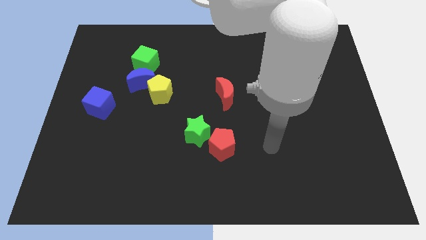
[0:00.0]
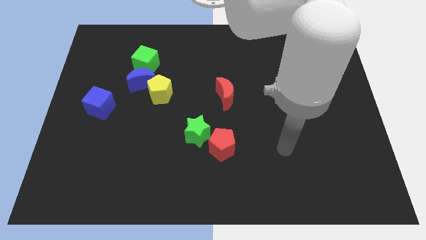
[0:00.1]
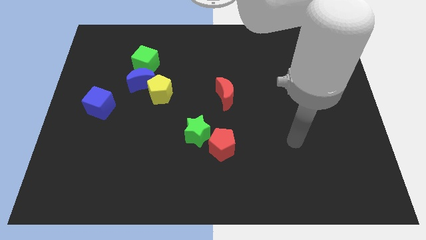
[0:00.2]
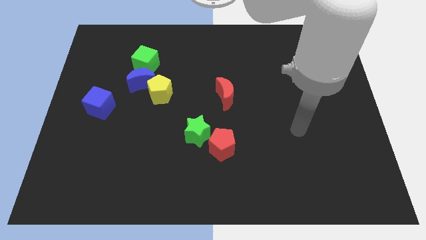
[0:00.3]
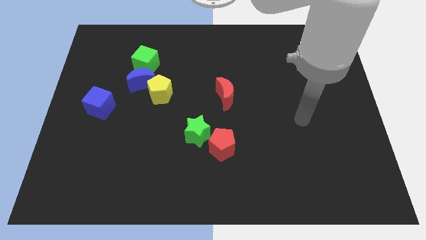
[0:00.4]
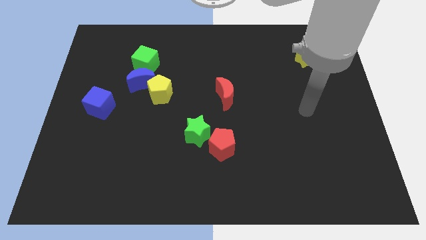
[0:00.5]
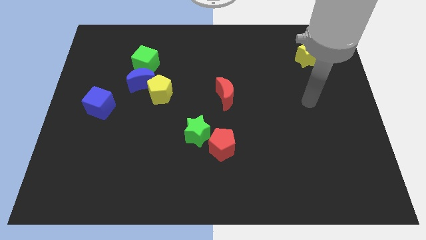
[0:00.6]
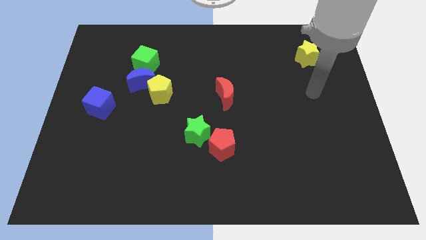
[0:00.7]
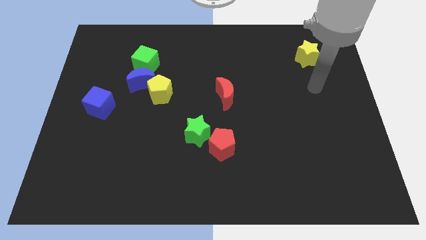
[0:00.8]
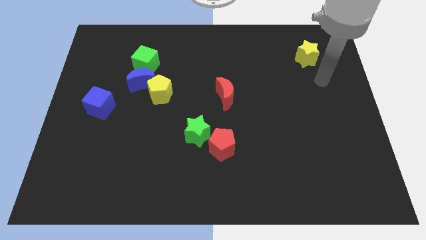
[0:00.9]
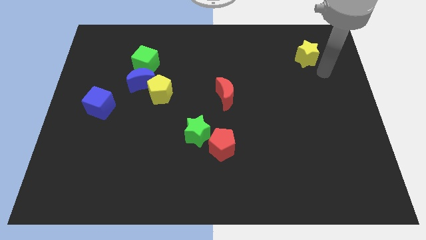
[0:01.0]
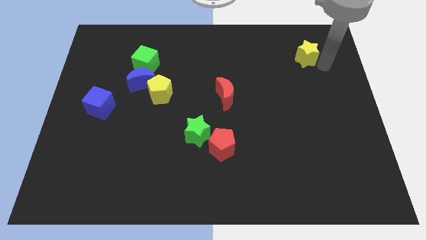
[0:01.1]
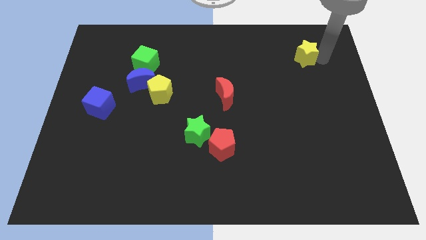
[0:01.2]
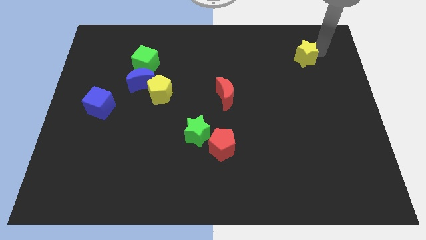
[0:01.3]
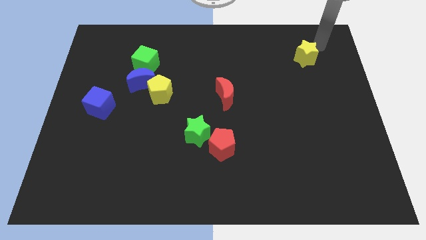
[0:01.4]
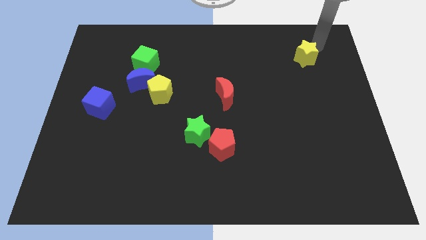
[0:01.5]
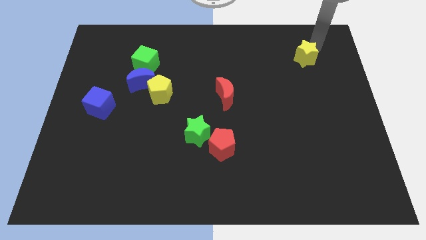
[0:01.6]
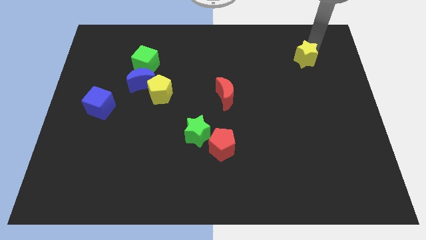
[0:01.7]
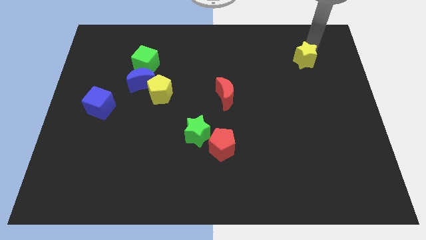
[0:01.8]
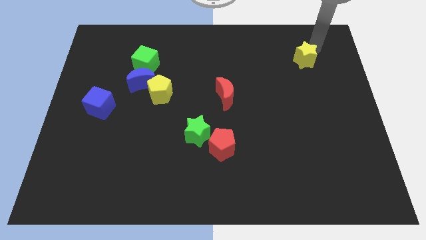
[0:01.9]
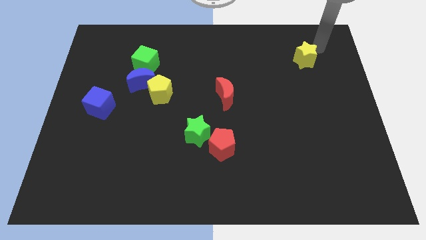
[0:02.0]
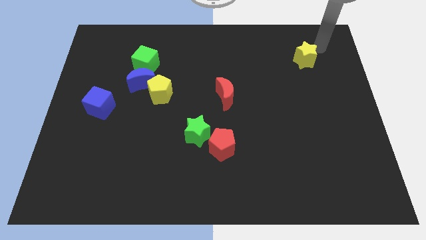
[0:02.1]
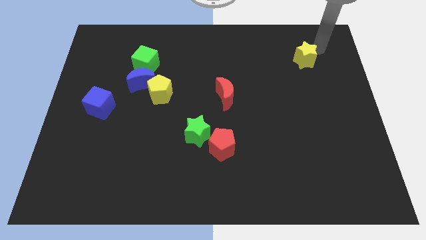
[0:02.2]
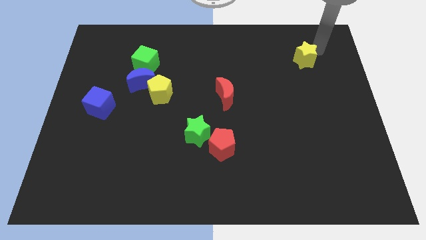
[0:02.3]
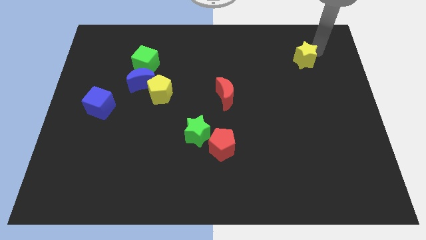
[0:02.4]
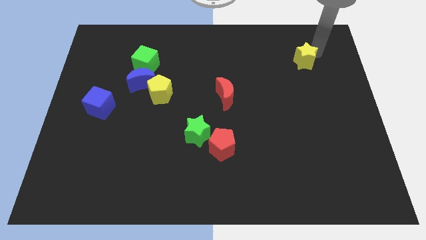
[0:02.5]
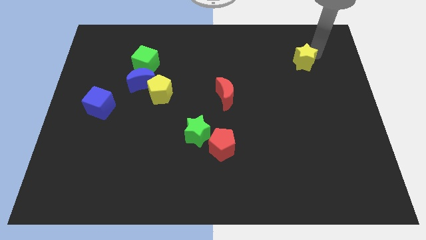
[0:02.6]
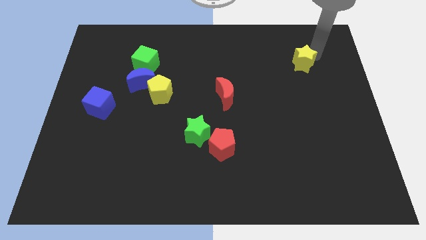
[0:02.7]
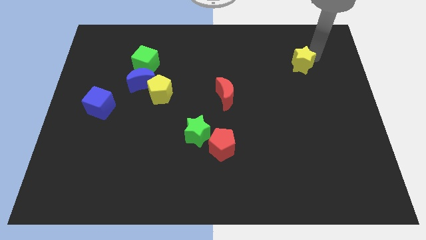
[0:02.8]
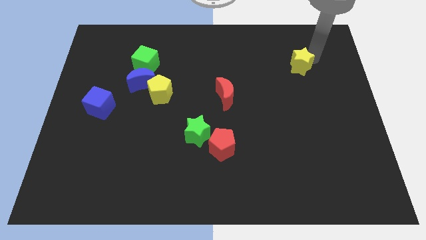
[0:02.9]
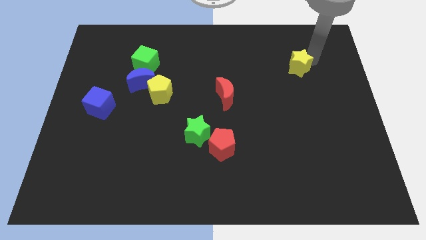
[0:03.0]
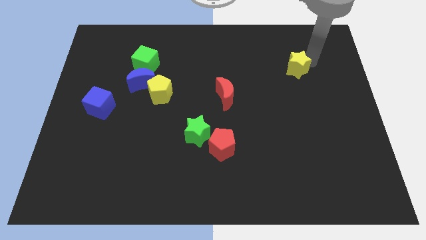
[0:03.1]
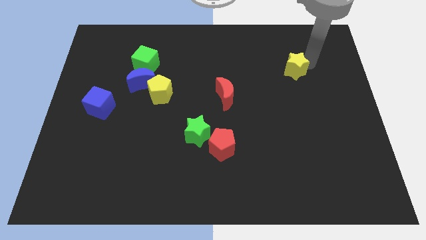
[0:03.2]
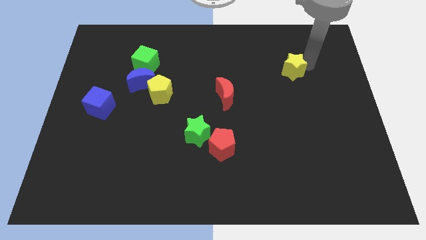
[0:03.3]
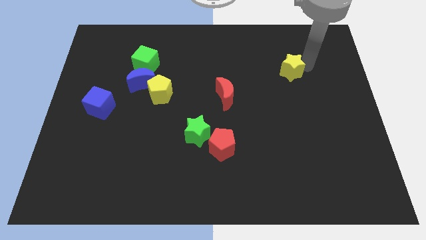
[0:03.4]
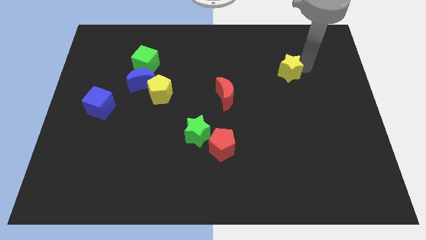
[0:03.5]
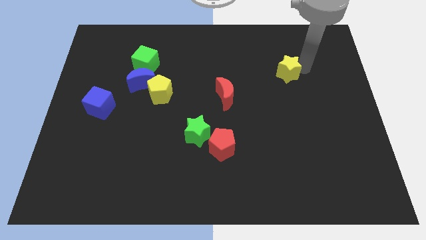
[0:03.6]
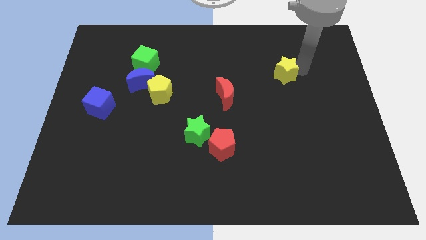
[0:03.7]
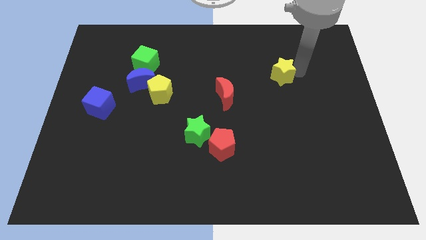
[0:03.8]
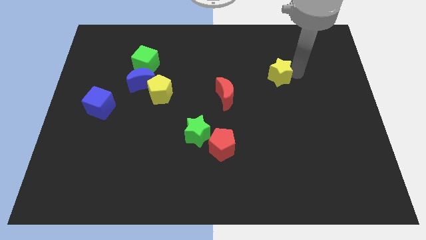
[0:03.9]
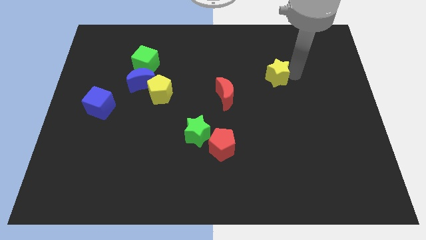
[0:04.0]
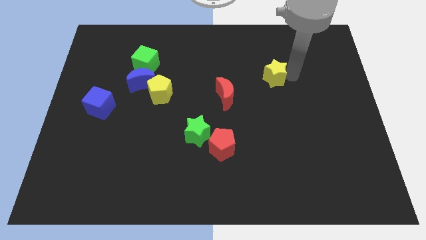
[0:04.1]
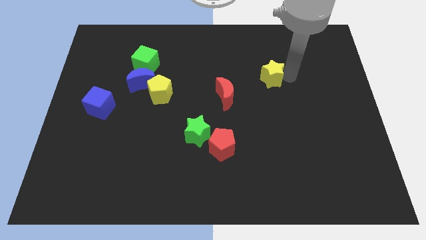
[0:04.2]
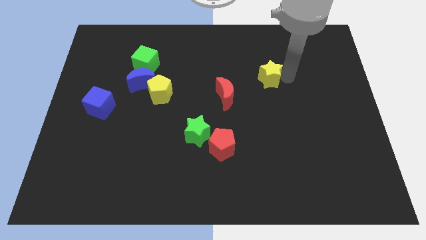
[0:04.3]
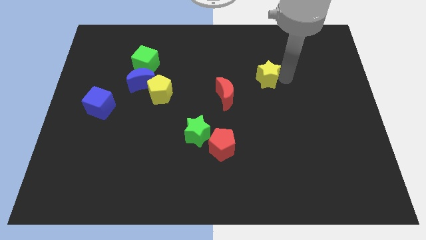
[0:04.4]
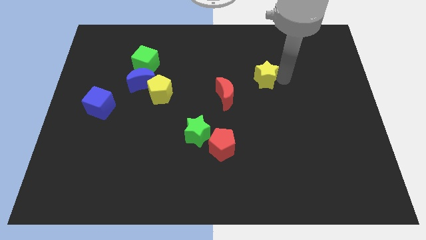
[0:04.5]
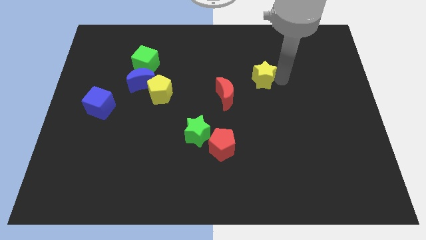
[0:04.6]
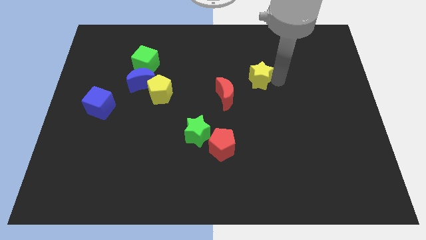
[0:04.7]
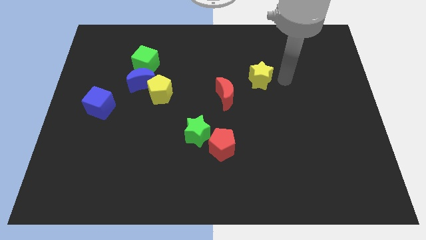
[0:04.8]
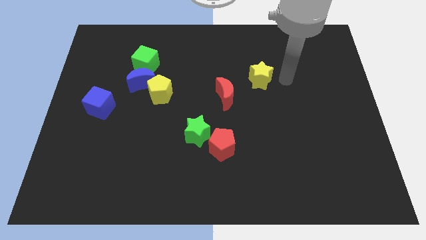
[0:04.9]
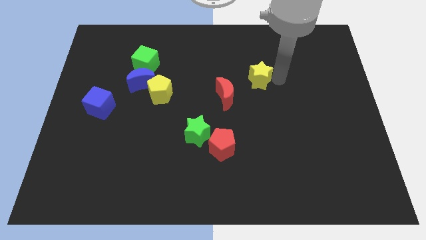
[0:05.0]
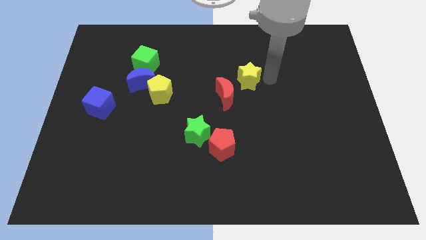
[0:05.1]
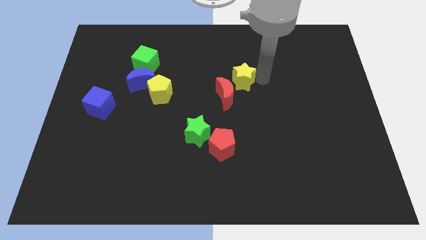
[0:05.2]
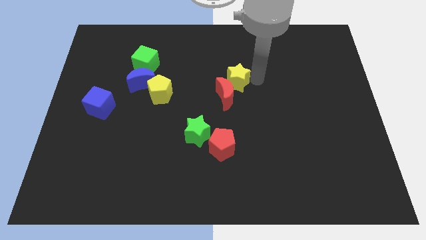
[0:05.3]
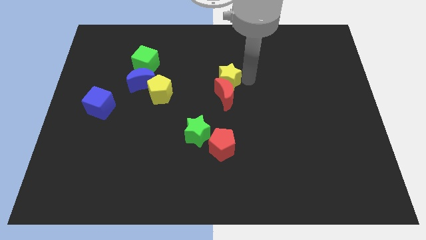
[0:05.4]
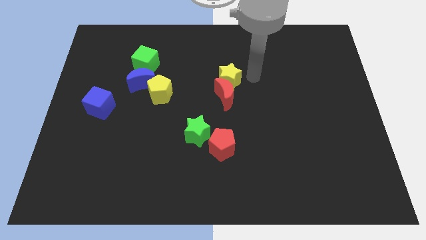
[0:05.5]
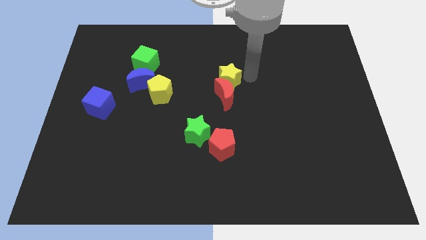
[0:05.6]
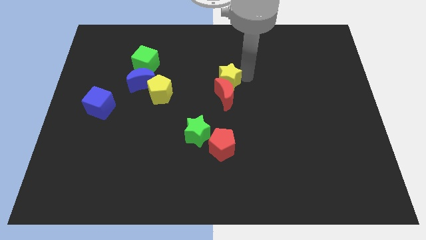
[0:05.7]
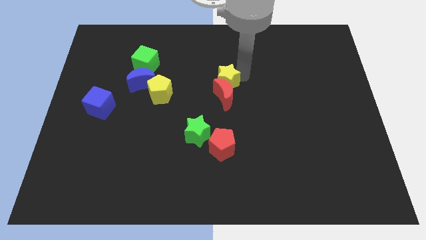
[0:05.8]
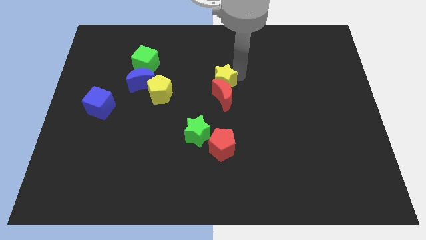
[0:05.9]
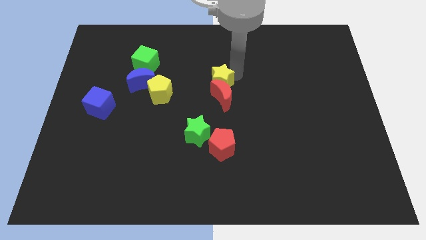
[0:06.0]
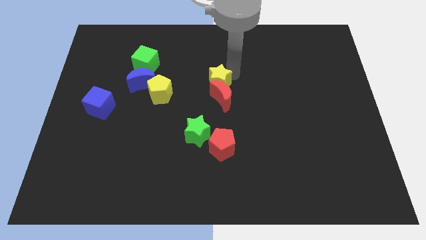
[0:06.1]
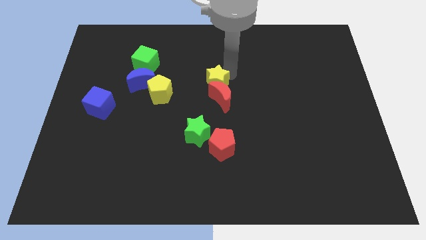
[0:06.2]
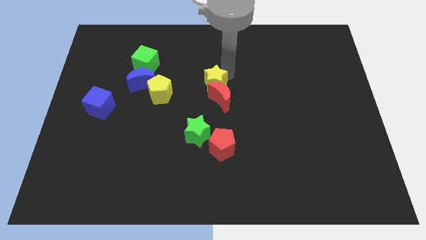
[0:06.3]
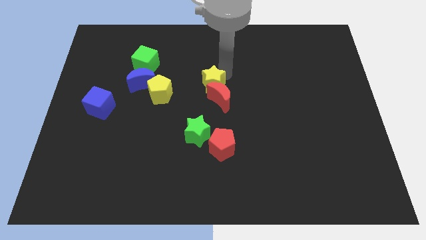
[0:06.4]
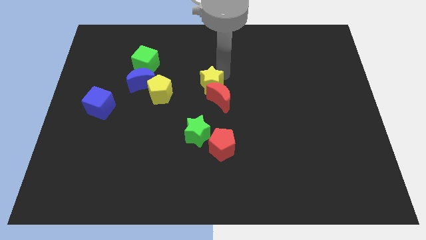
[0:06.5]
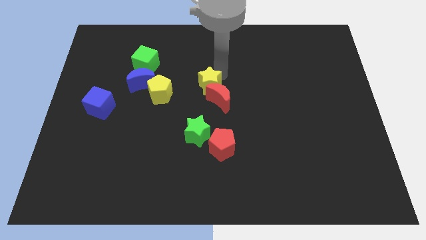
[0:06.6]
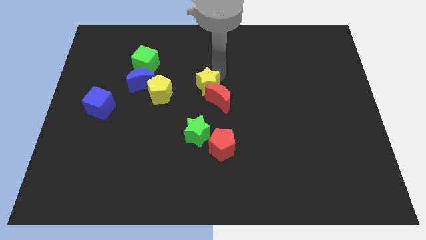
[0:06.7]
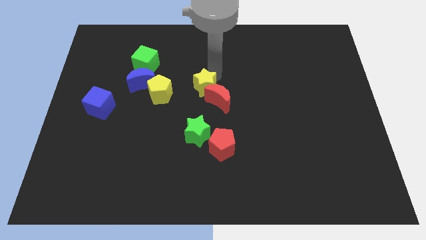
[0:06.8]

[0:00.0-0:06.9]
push the yellow star to the left of the red moon

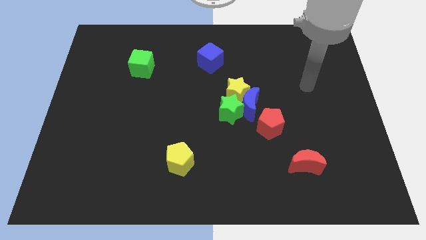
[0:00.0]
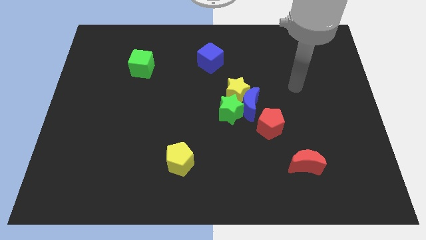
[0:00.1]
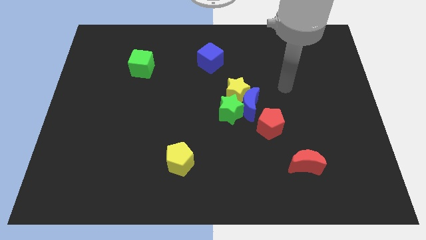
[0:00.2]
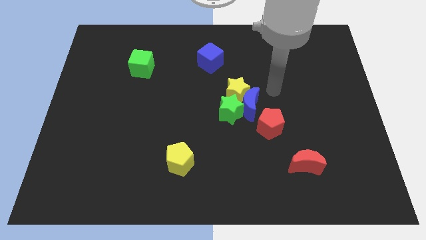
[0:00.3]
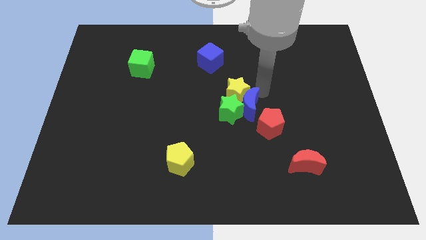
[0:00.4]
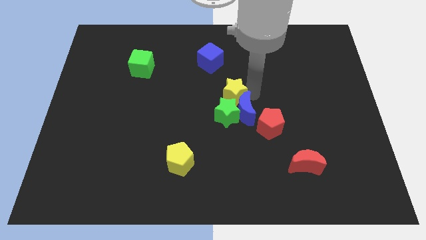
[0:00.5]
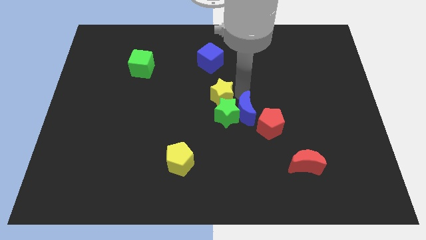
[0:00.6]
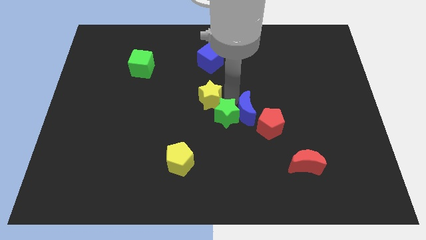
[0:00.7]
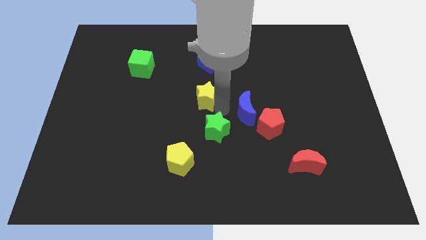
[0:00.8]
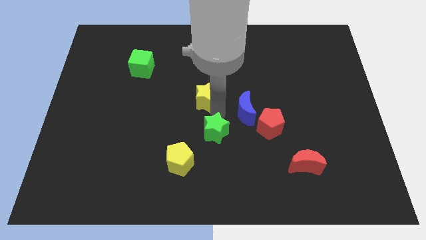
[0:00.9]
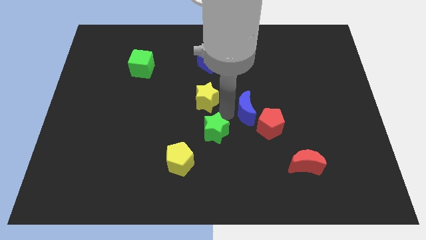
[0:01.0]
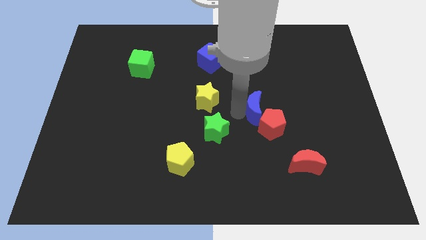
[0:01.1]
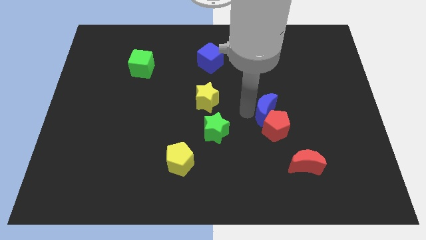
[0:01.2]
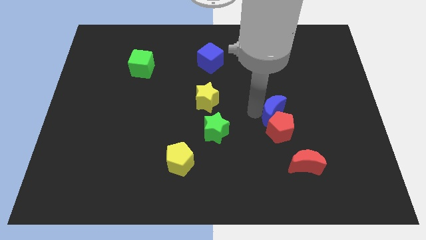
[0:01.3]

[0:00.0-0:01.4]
push the blue moon to the top right of the red pentagon
